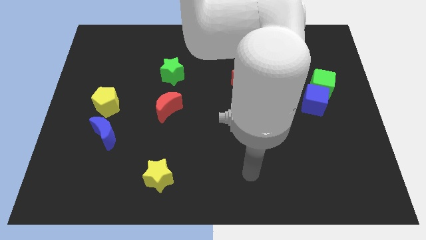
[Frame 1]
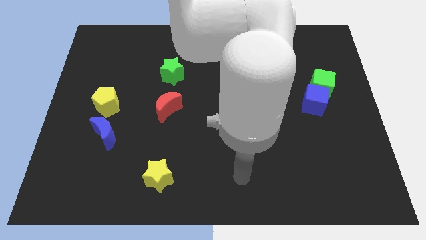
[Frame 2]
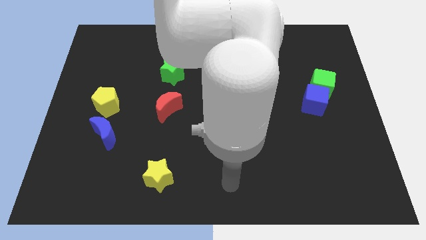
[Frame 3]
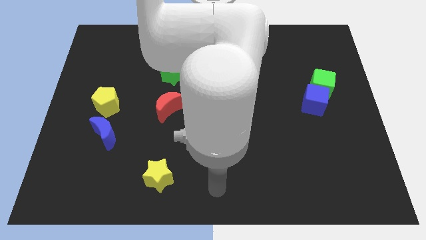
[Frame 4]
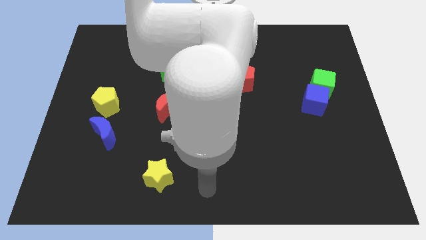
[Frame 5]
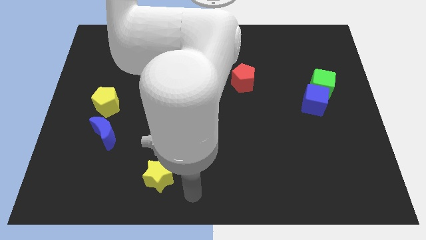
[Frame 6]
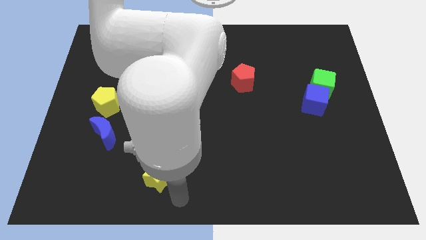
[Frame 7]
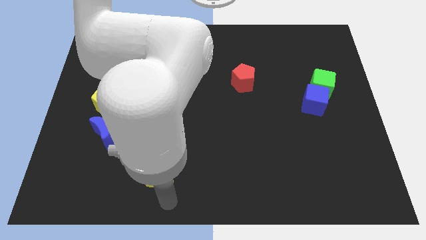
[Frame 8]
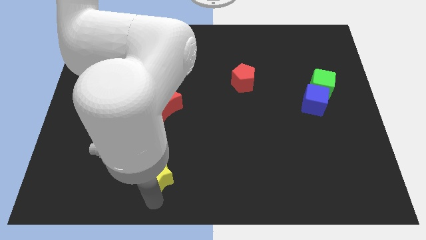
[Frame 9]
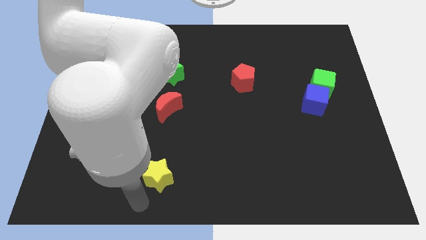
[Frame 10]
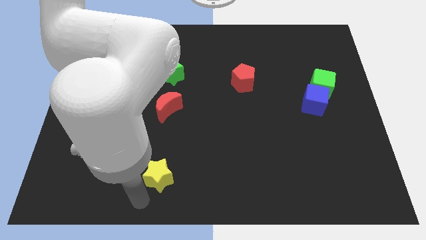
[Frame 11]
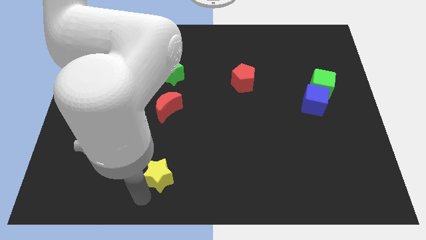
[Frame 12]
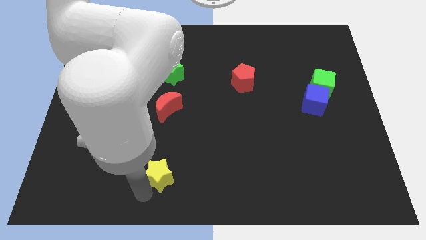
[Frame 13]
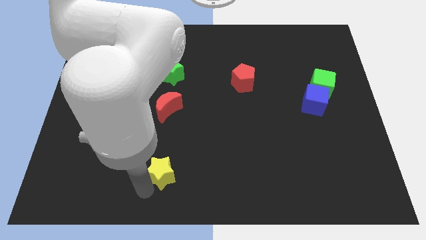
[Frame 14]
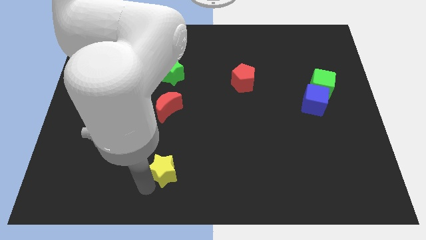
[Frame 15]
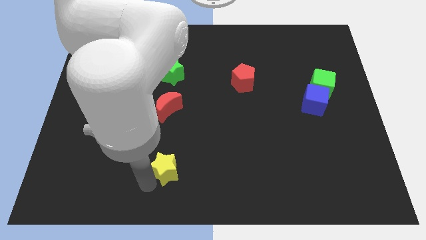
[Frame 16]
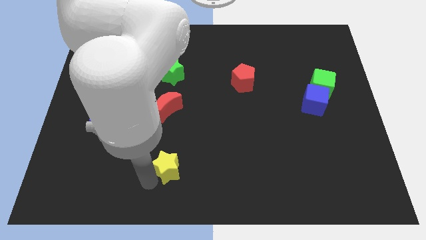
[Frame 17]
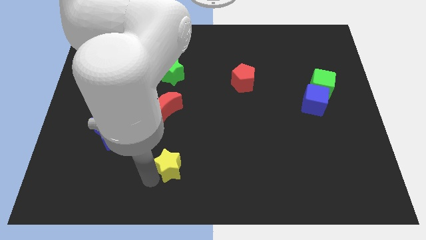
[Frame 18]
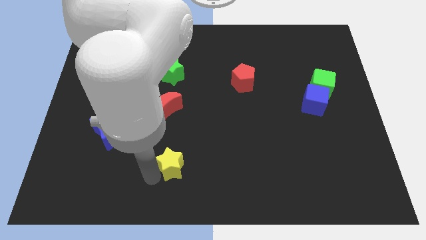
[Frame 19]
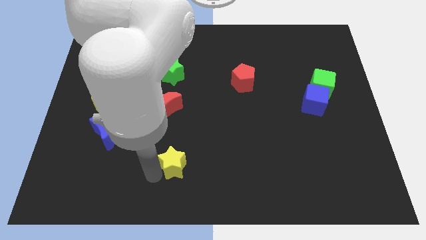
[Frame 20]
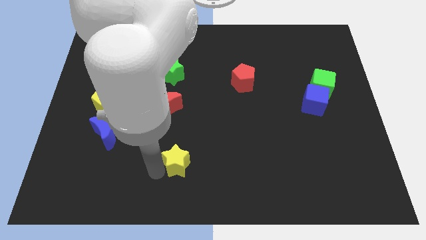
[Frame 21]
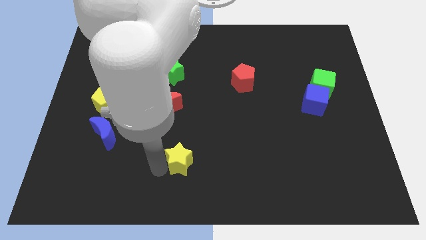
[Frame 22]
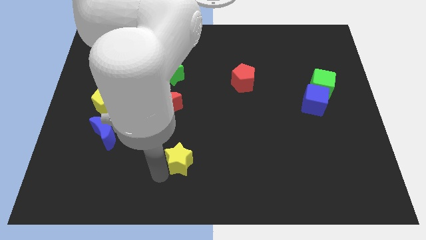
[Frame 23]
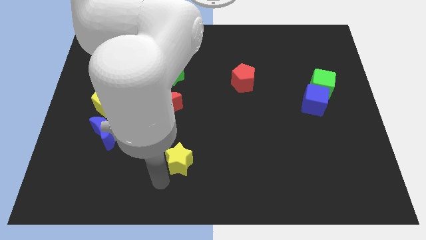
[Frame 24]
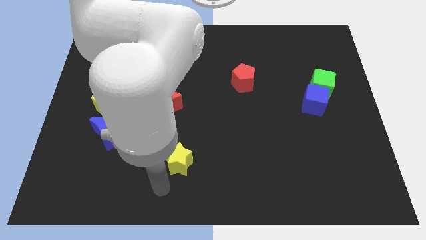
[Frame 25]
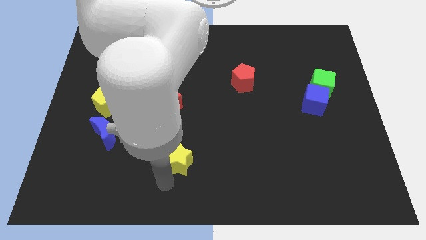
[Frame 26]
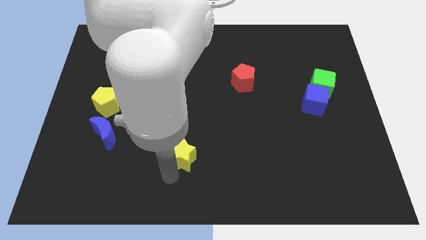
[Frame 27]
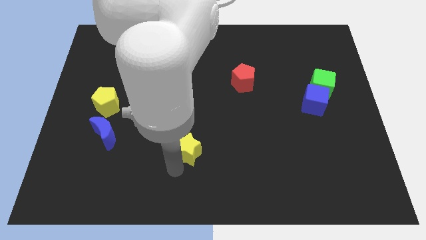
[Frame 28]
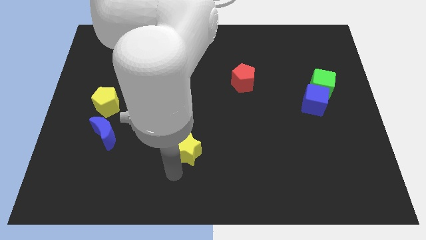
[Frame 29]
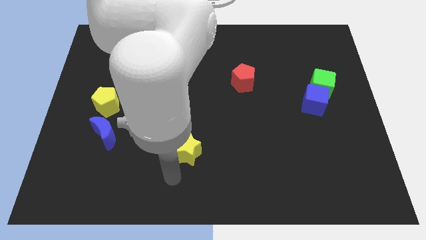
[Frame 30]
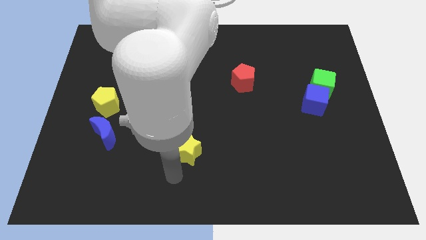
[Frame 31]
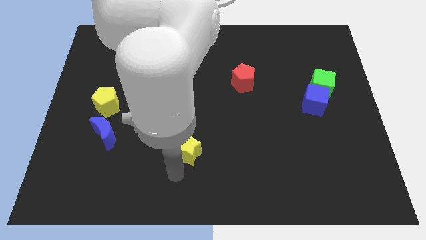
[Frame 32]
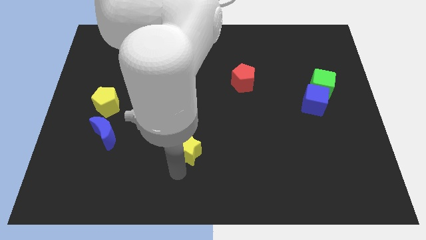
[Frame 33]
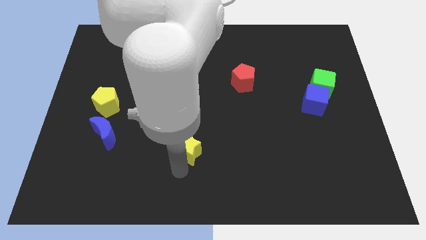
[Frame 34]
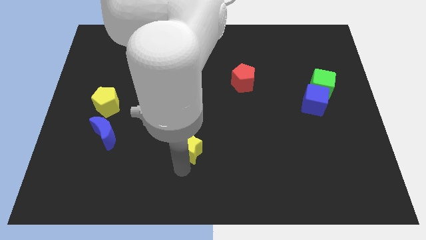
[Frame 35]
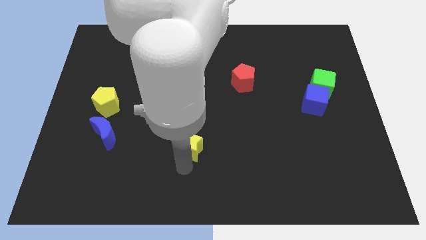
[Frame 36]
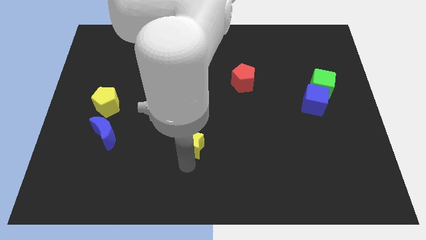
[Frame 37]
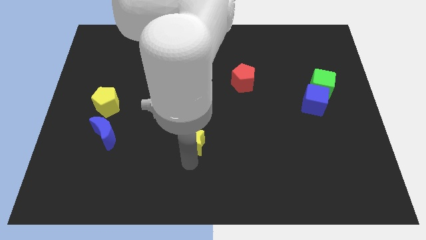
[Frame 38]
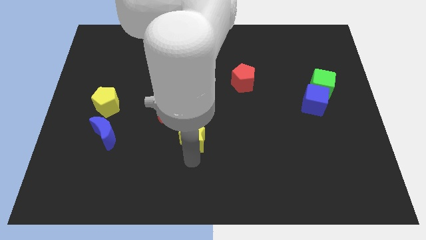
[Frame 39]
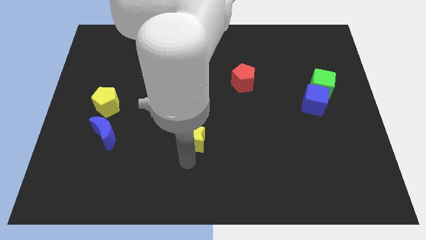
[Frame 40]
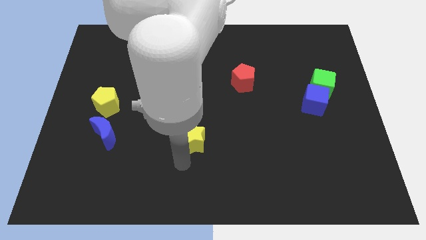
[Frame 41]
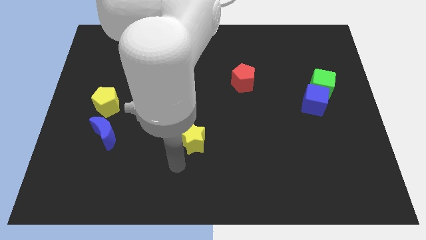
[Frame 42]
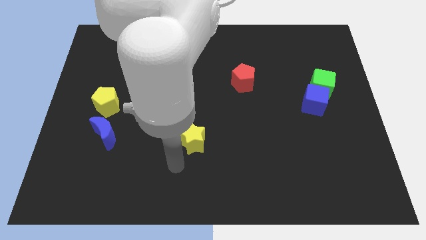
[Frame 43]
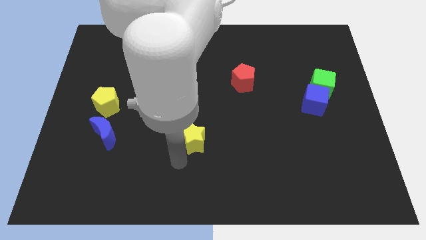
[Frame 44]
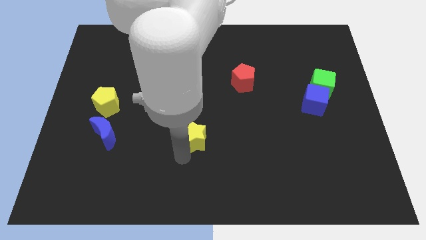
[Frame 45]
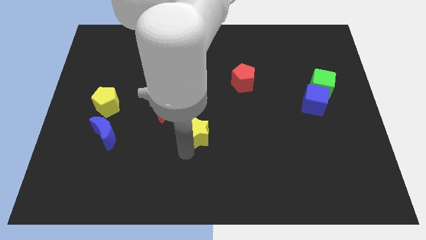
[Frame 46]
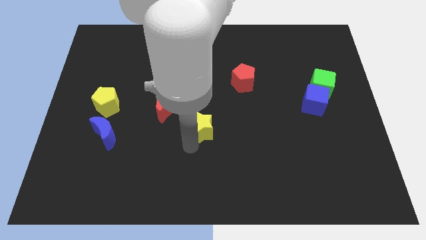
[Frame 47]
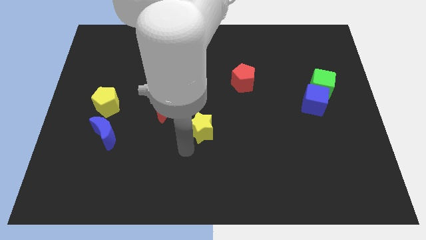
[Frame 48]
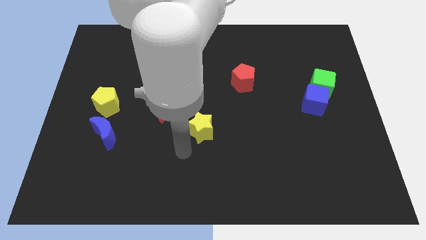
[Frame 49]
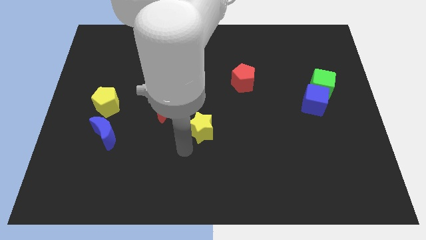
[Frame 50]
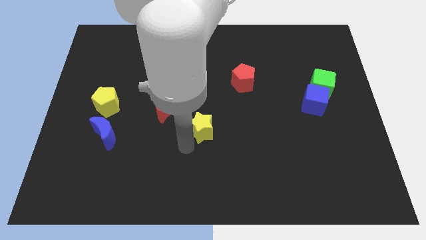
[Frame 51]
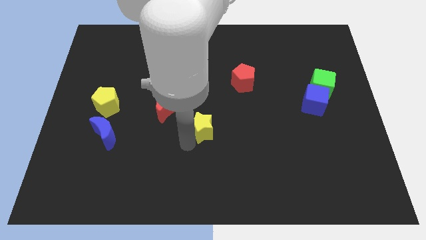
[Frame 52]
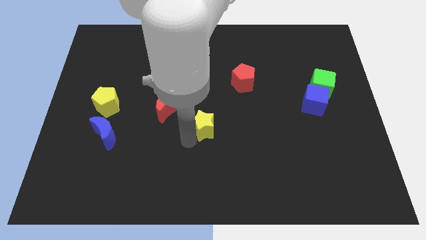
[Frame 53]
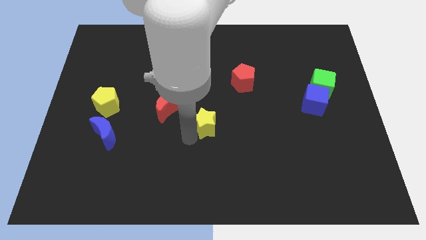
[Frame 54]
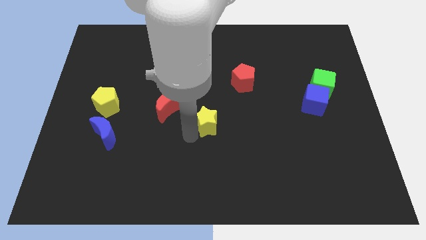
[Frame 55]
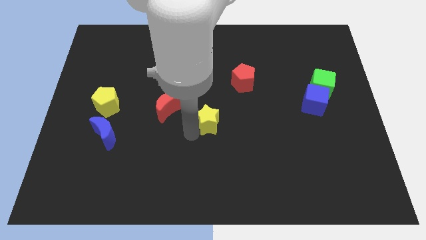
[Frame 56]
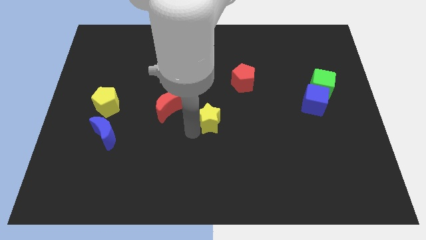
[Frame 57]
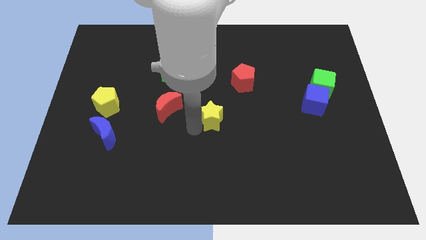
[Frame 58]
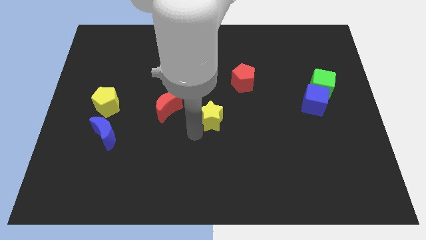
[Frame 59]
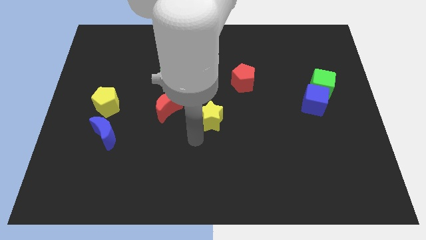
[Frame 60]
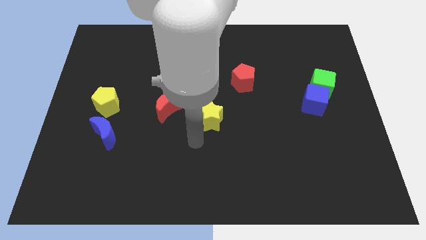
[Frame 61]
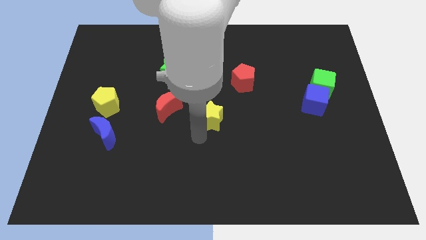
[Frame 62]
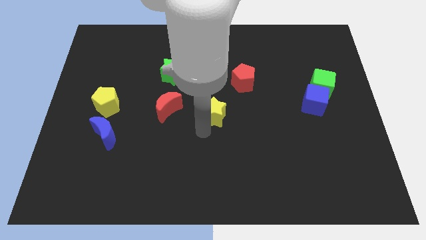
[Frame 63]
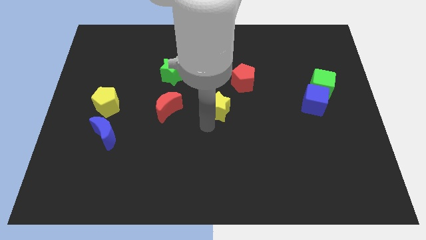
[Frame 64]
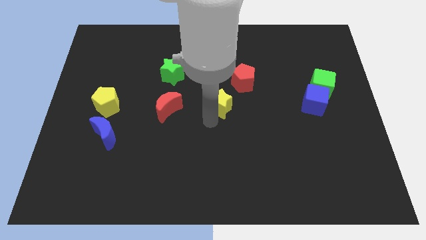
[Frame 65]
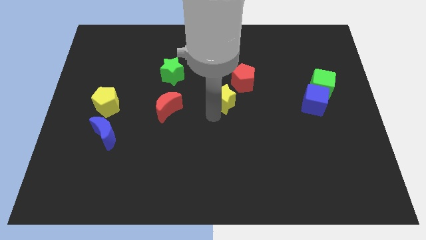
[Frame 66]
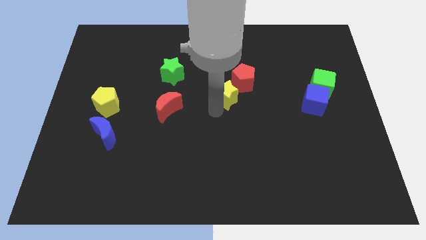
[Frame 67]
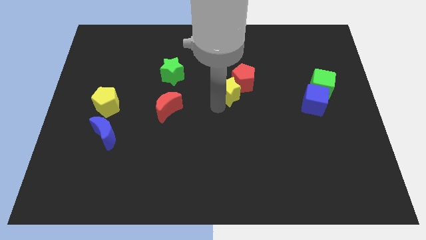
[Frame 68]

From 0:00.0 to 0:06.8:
move the yellow star close to the red pentagon

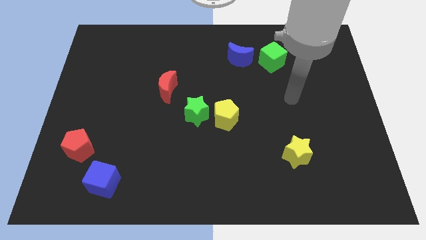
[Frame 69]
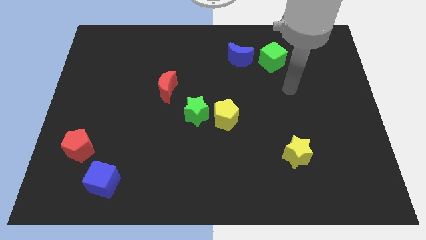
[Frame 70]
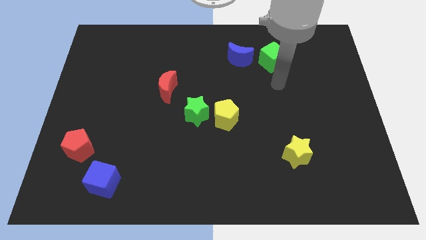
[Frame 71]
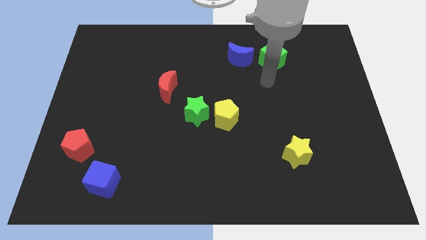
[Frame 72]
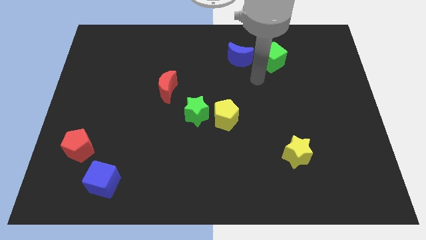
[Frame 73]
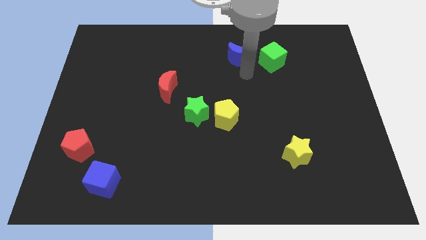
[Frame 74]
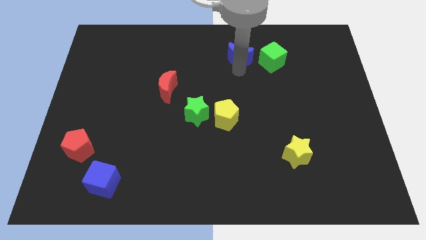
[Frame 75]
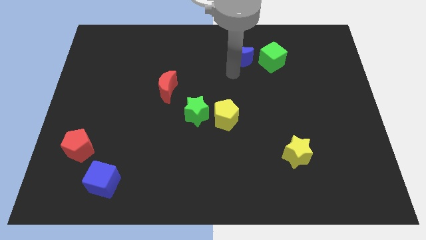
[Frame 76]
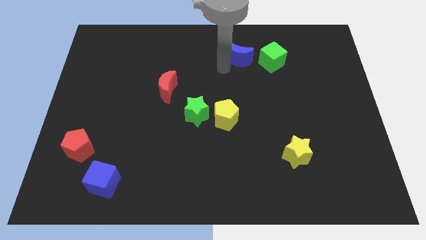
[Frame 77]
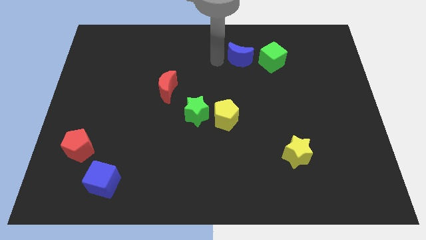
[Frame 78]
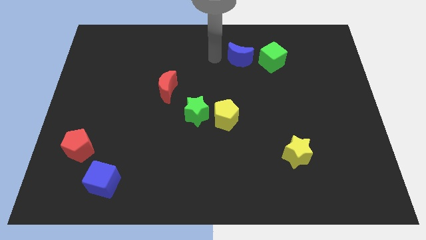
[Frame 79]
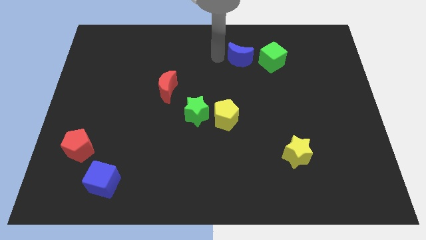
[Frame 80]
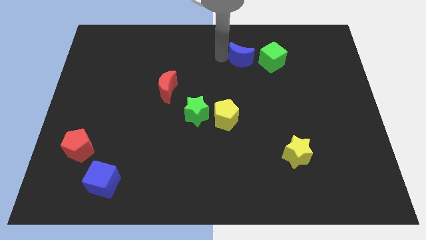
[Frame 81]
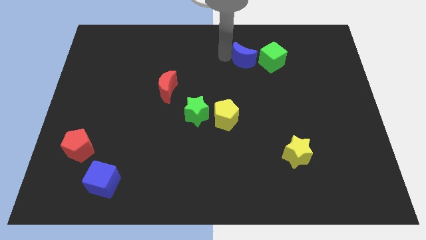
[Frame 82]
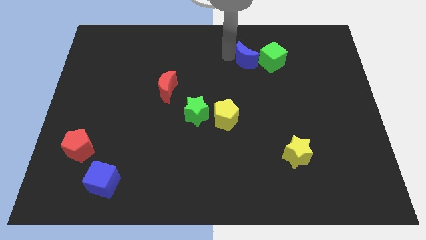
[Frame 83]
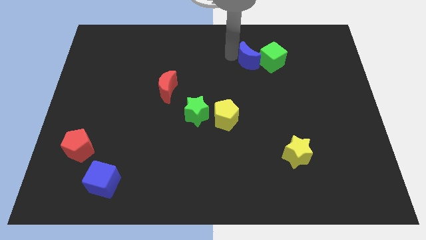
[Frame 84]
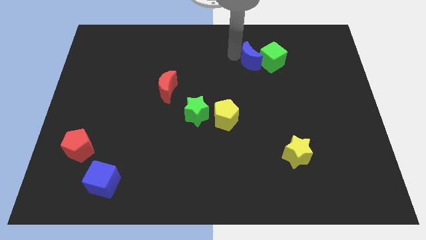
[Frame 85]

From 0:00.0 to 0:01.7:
move the blue moon to the green cube
